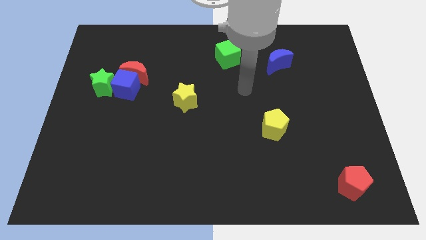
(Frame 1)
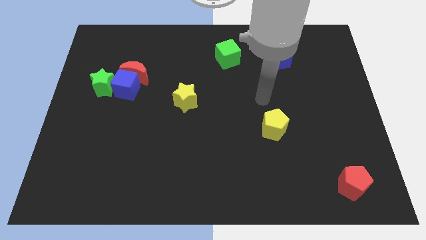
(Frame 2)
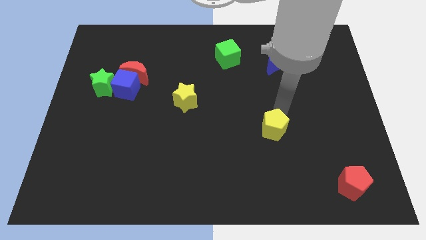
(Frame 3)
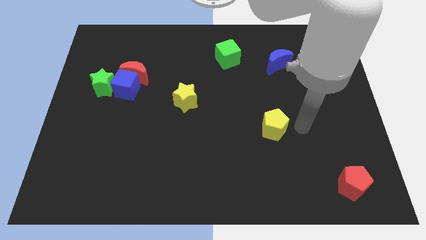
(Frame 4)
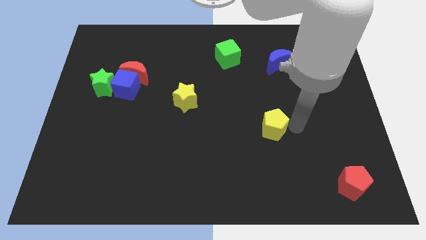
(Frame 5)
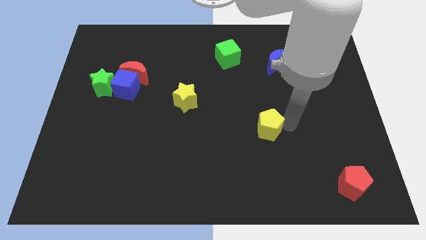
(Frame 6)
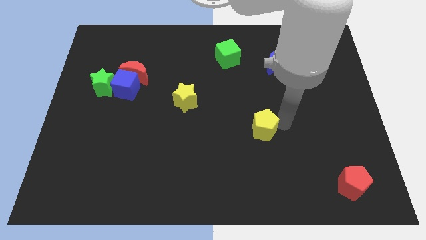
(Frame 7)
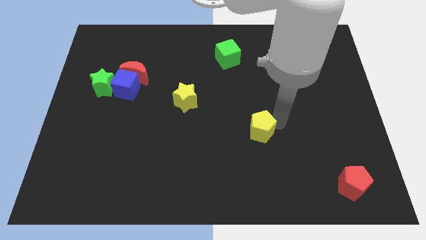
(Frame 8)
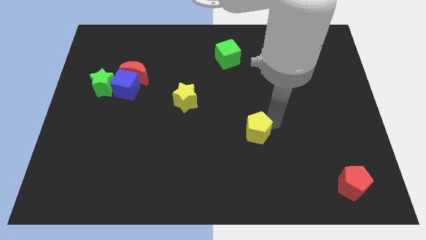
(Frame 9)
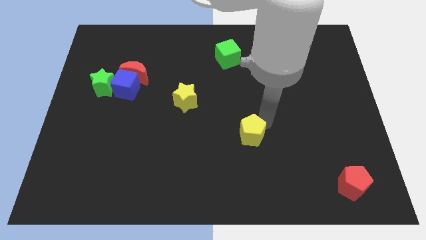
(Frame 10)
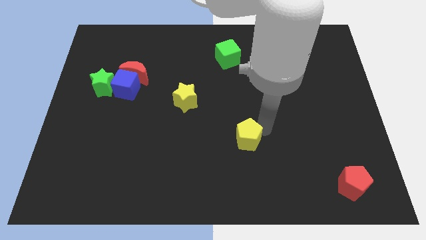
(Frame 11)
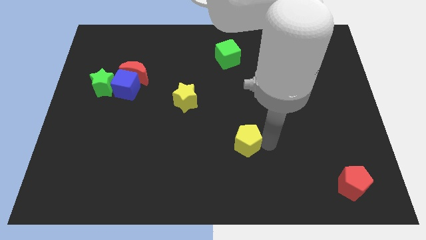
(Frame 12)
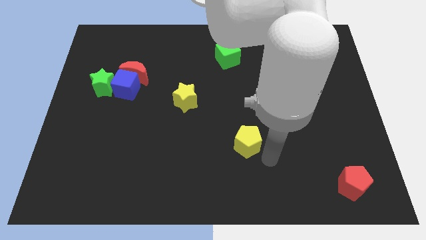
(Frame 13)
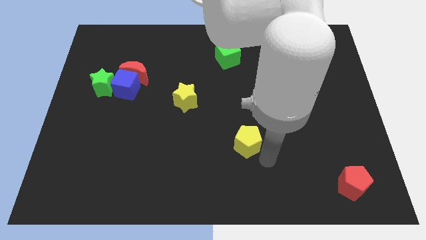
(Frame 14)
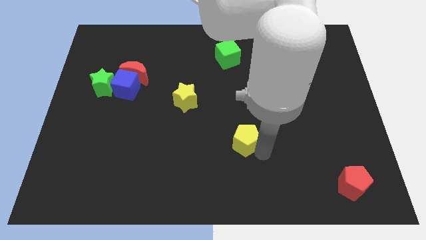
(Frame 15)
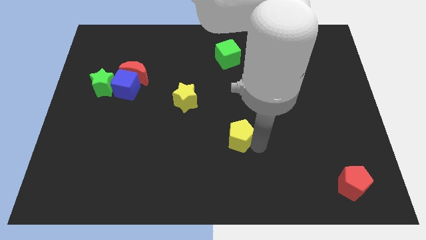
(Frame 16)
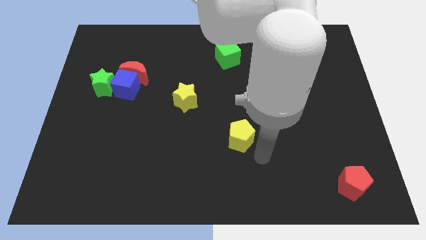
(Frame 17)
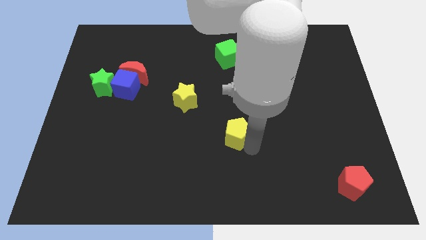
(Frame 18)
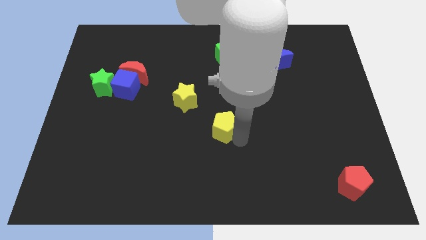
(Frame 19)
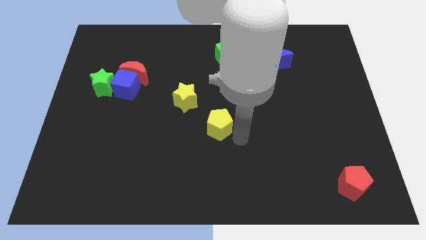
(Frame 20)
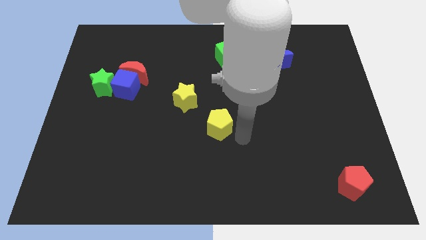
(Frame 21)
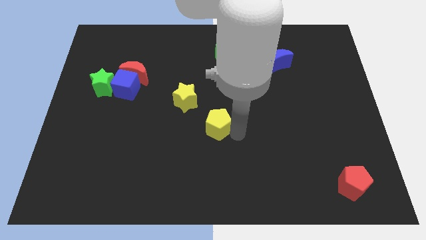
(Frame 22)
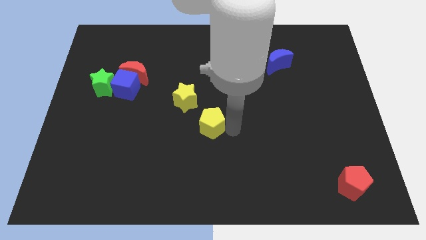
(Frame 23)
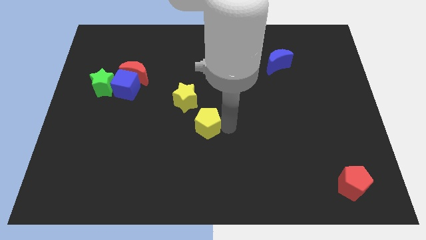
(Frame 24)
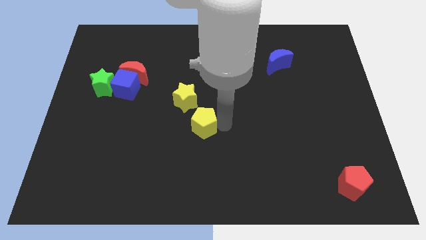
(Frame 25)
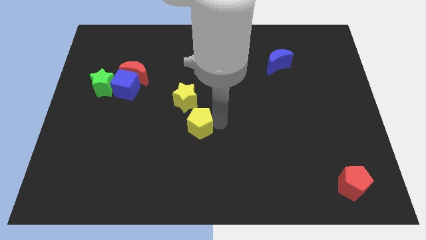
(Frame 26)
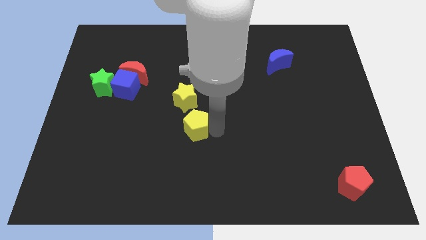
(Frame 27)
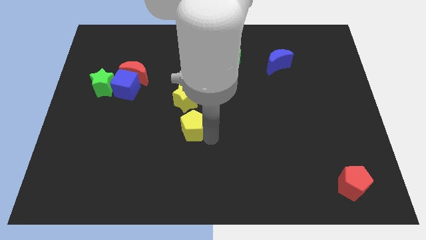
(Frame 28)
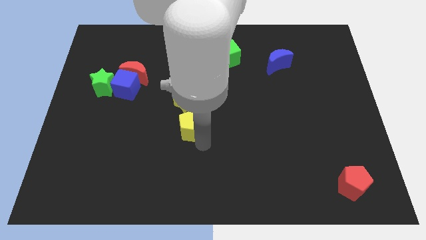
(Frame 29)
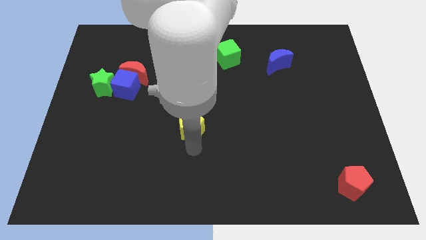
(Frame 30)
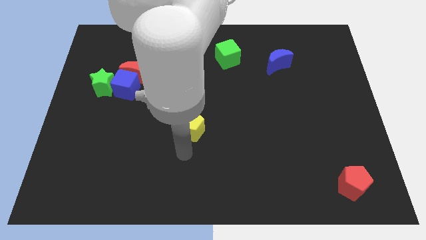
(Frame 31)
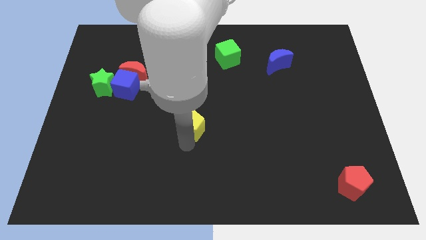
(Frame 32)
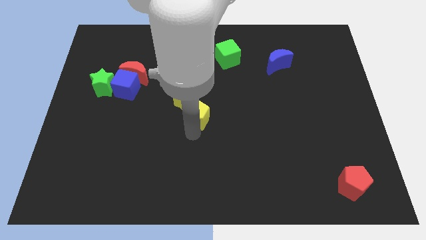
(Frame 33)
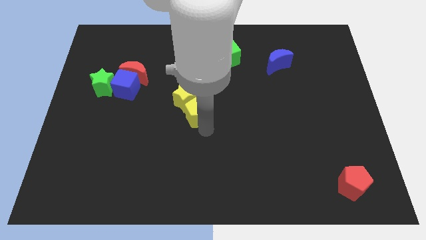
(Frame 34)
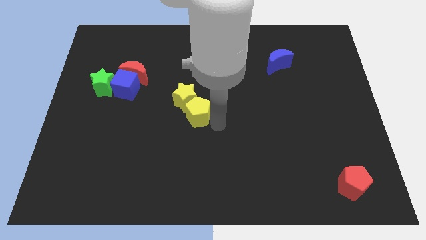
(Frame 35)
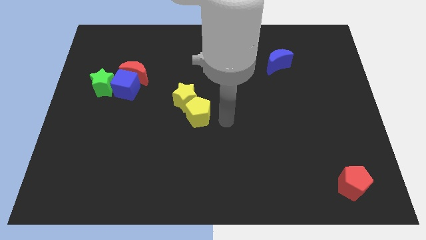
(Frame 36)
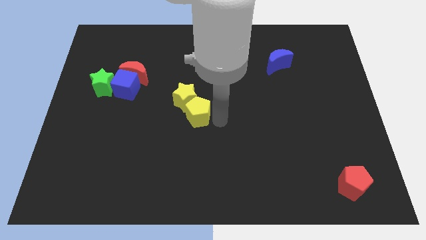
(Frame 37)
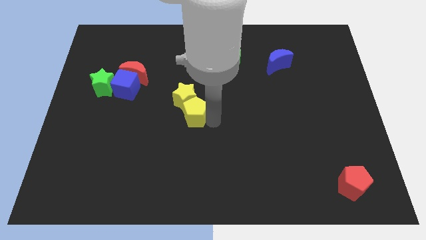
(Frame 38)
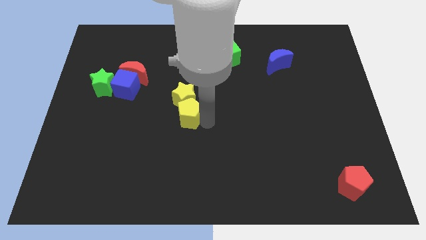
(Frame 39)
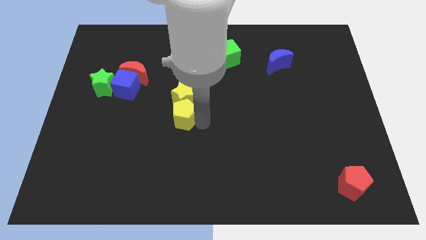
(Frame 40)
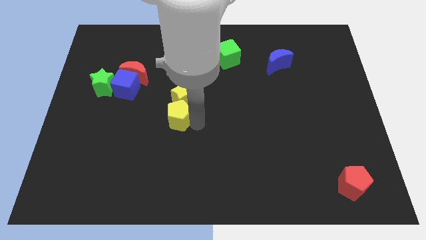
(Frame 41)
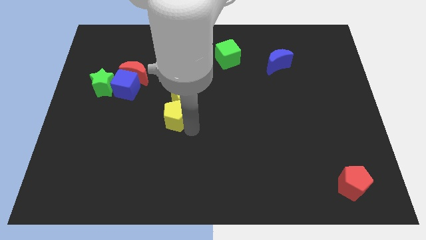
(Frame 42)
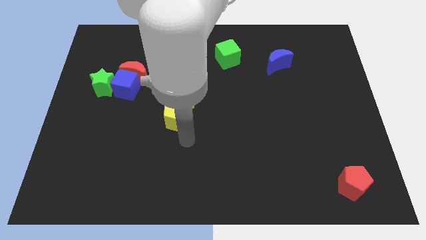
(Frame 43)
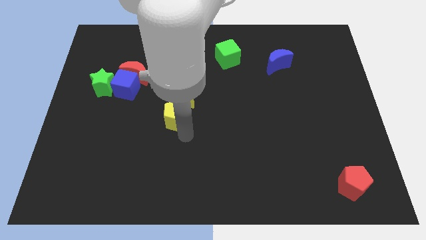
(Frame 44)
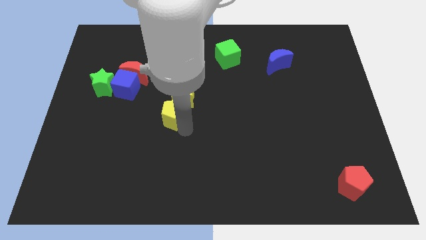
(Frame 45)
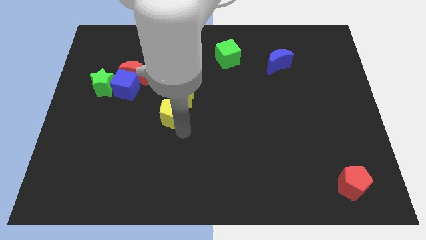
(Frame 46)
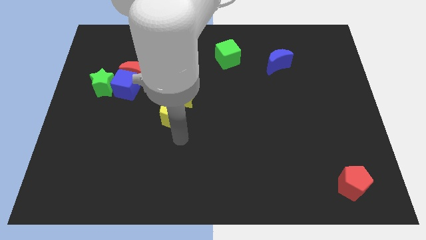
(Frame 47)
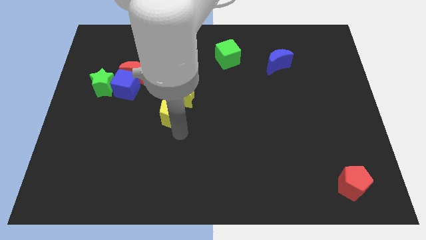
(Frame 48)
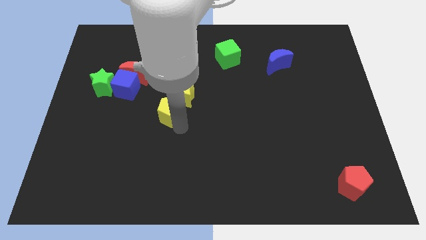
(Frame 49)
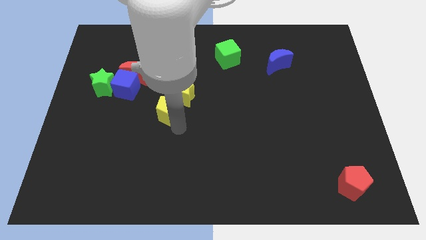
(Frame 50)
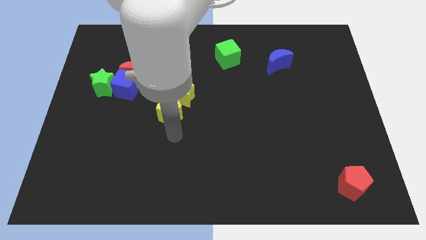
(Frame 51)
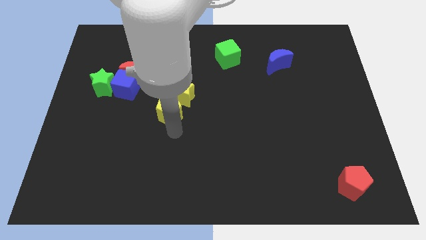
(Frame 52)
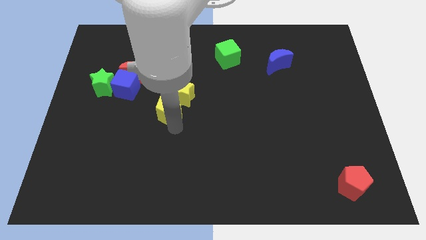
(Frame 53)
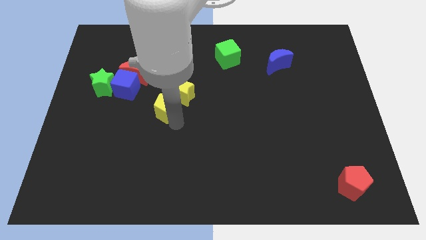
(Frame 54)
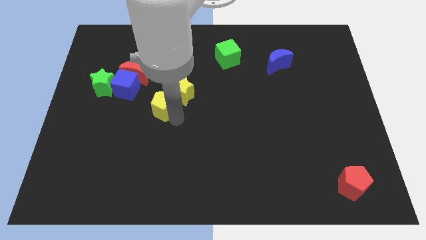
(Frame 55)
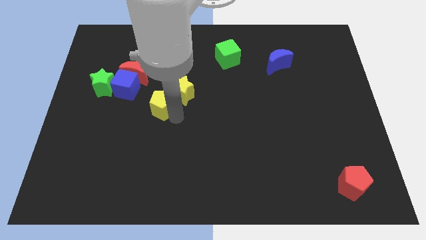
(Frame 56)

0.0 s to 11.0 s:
put the yellow pentagon to the bottom right of the red moon

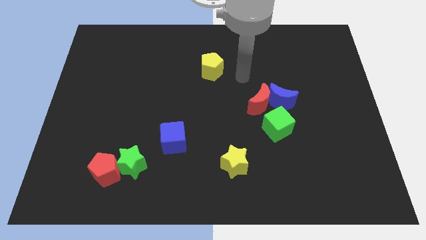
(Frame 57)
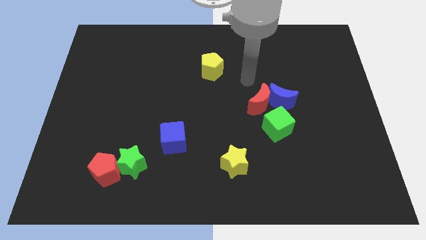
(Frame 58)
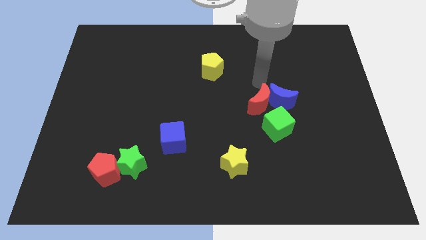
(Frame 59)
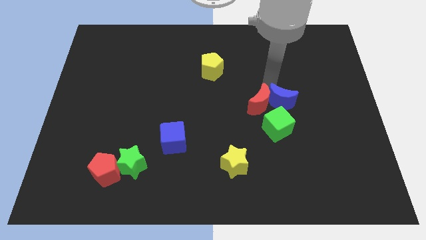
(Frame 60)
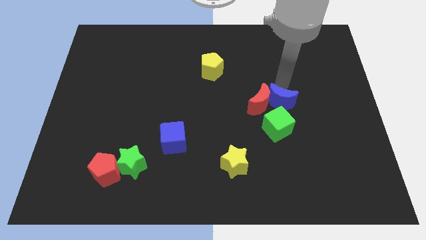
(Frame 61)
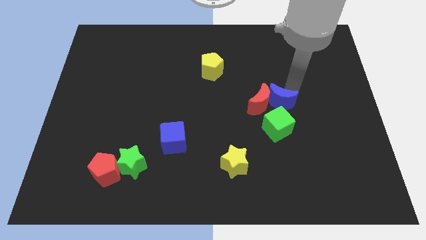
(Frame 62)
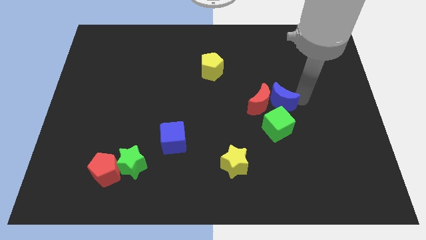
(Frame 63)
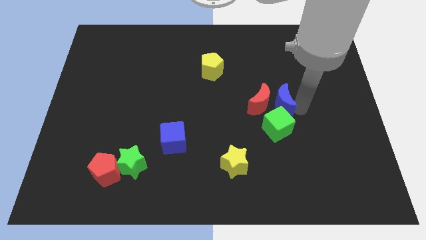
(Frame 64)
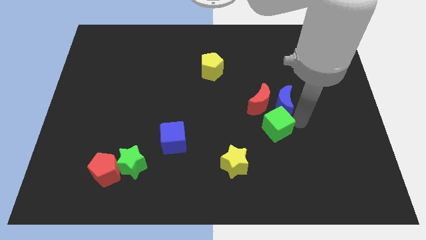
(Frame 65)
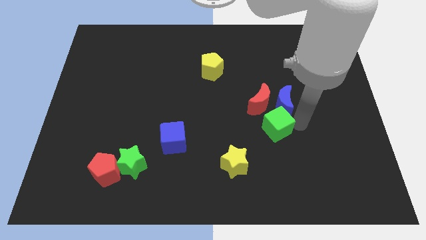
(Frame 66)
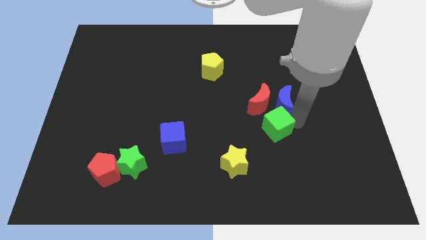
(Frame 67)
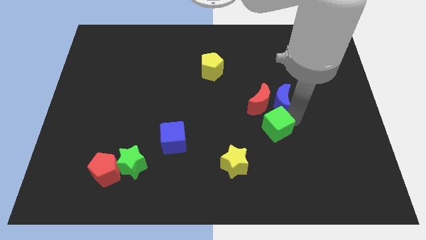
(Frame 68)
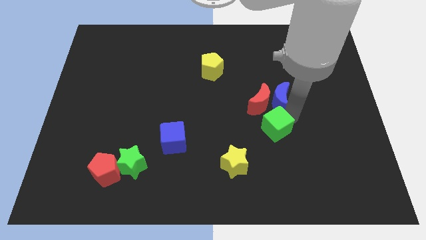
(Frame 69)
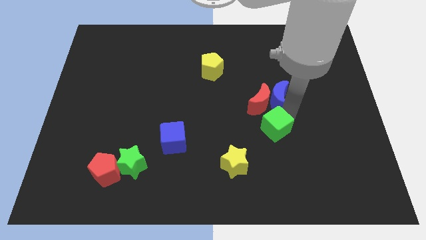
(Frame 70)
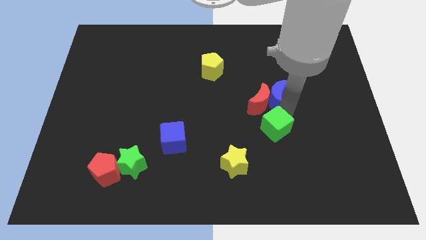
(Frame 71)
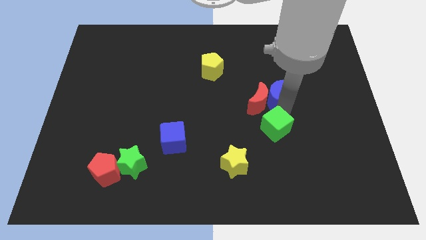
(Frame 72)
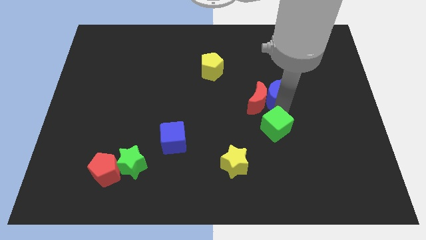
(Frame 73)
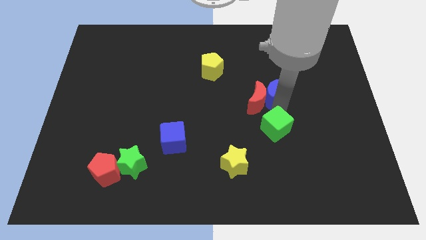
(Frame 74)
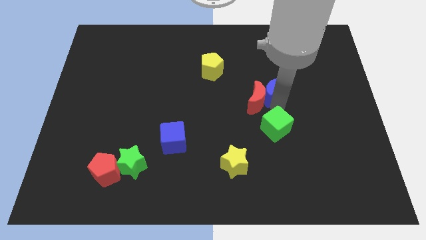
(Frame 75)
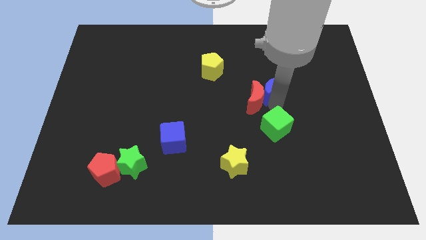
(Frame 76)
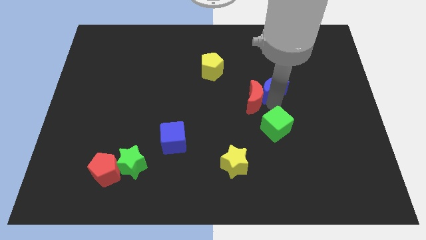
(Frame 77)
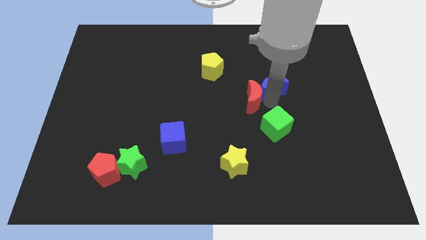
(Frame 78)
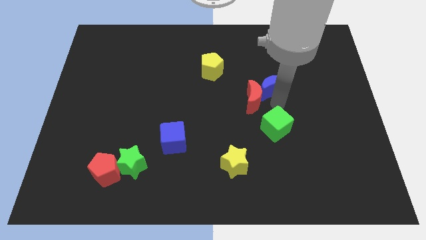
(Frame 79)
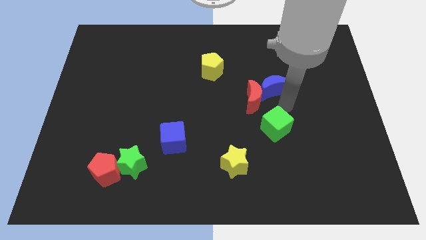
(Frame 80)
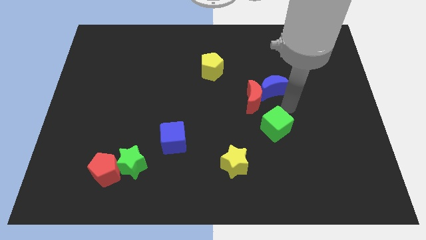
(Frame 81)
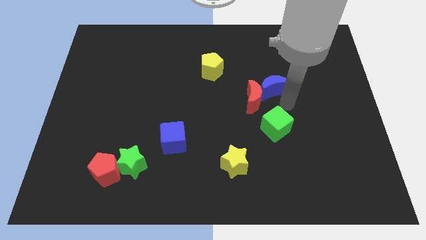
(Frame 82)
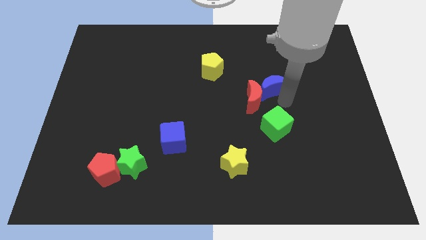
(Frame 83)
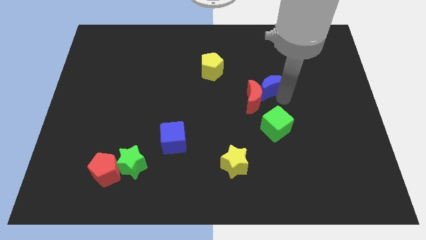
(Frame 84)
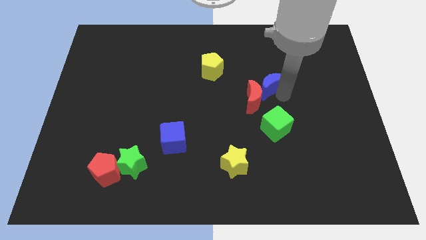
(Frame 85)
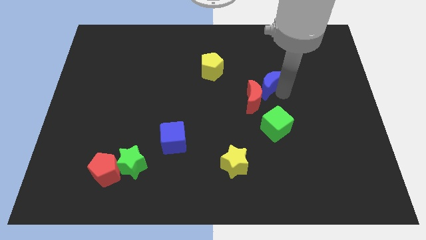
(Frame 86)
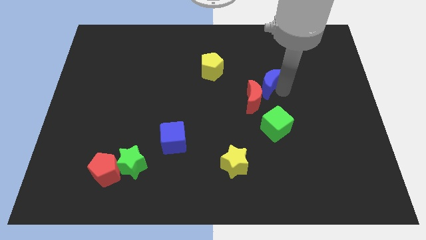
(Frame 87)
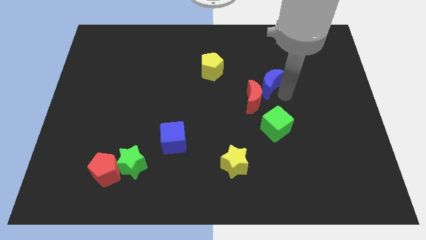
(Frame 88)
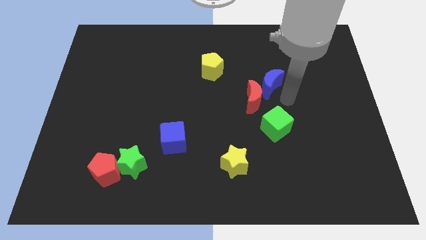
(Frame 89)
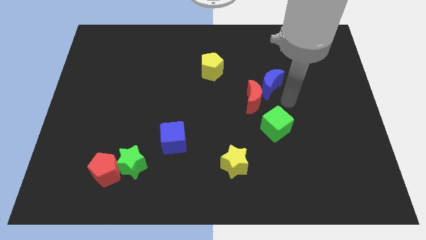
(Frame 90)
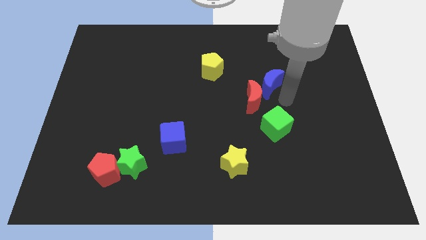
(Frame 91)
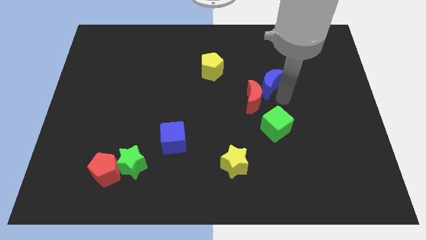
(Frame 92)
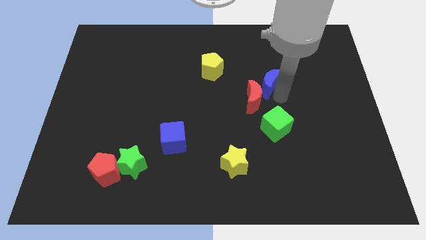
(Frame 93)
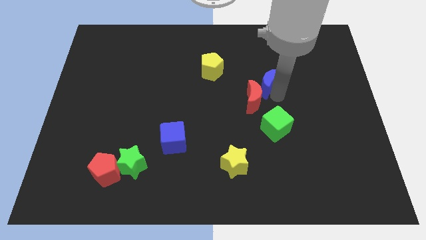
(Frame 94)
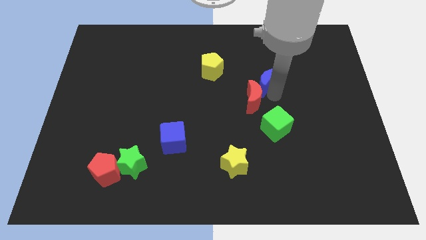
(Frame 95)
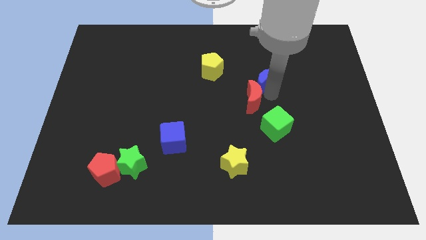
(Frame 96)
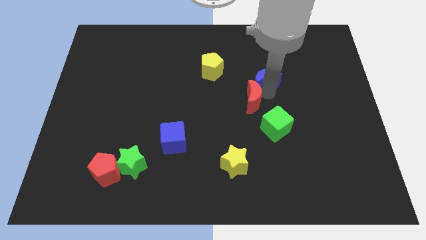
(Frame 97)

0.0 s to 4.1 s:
put the blue moon to the right side of the yellow pentagon
